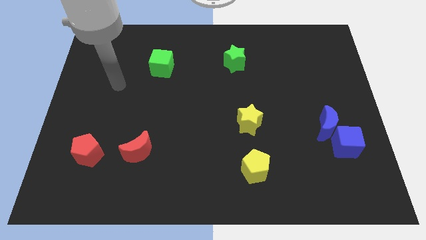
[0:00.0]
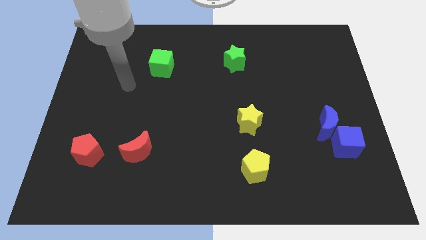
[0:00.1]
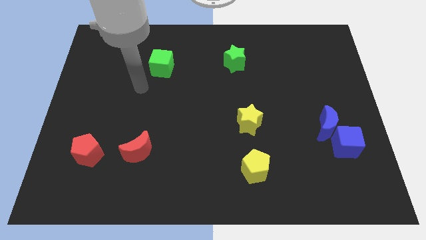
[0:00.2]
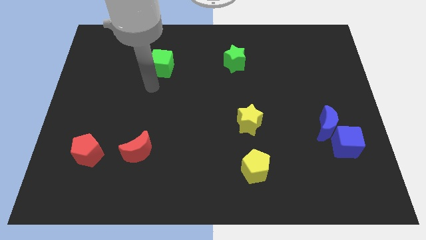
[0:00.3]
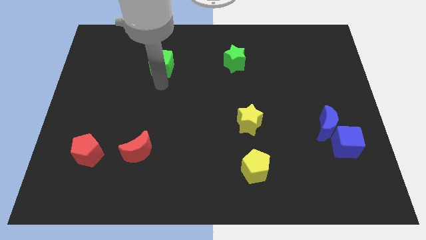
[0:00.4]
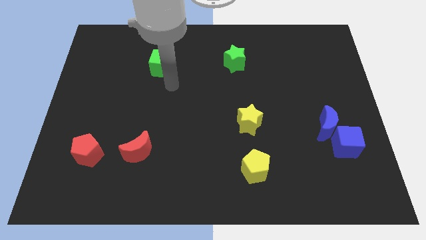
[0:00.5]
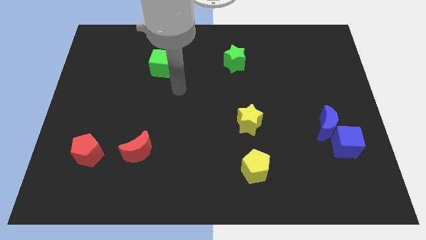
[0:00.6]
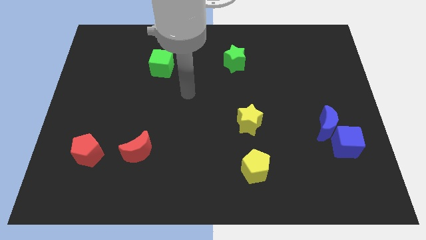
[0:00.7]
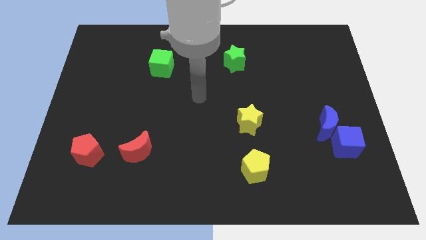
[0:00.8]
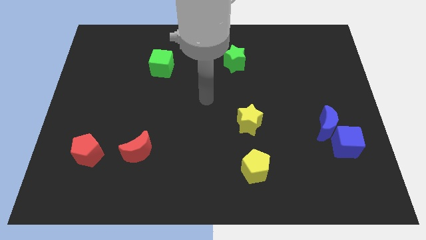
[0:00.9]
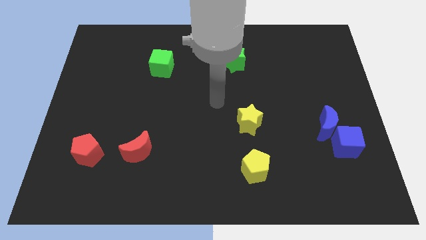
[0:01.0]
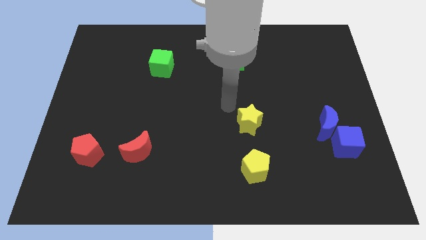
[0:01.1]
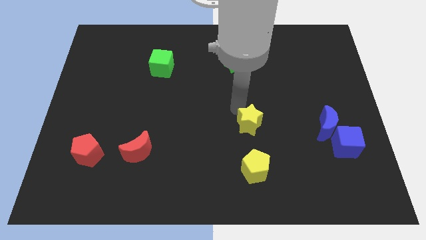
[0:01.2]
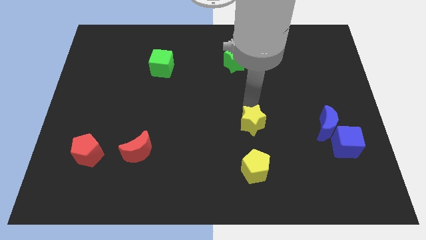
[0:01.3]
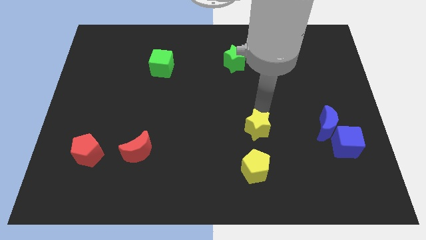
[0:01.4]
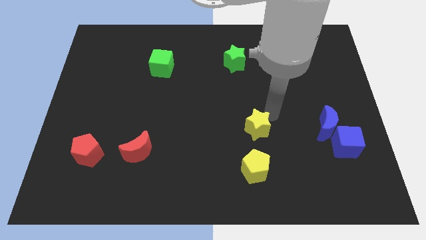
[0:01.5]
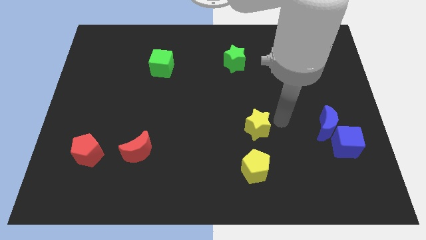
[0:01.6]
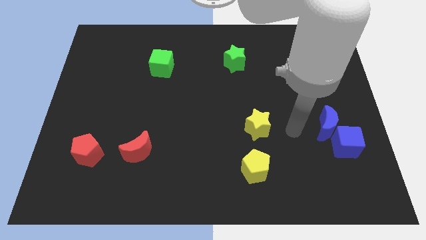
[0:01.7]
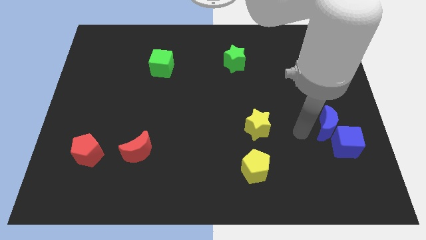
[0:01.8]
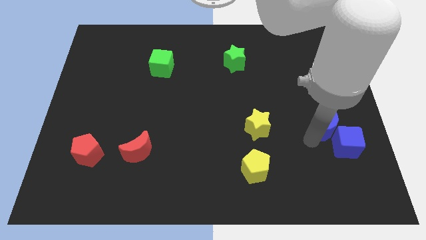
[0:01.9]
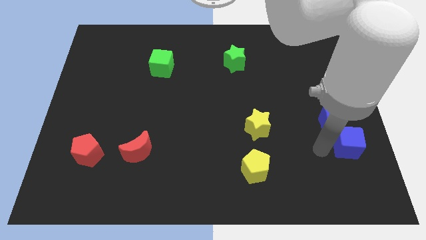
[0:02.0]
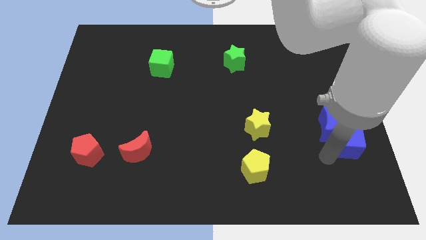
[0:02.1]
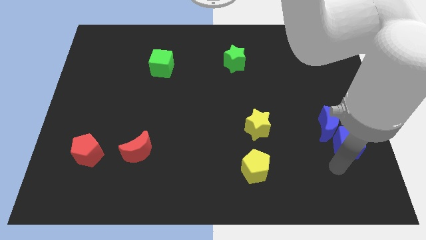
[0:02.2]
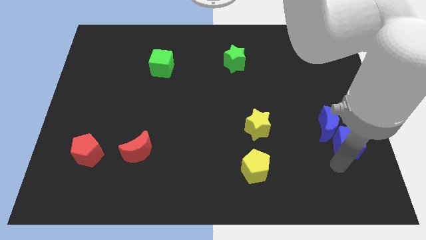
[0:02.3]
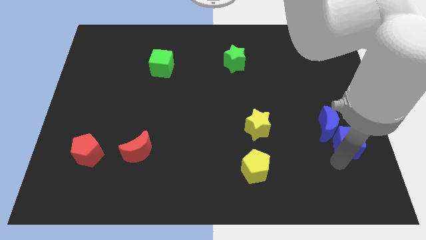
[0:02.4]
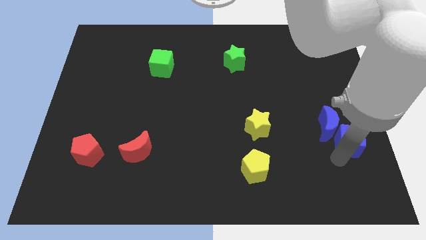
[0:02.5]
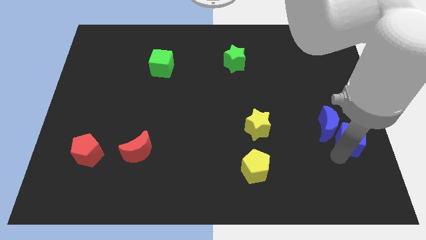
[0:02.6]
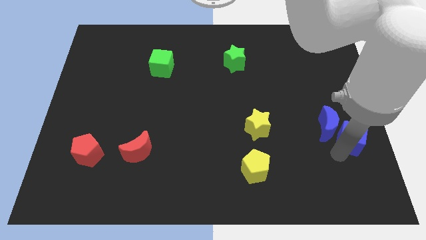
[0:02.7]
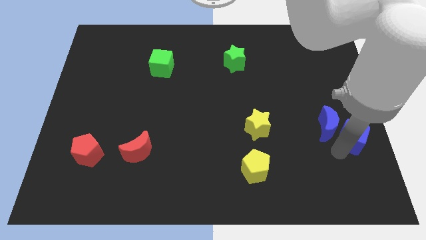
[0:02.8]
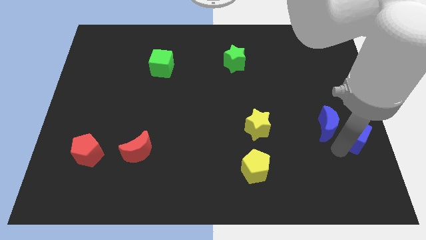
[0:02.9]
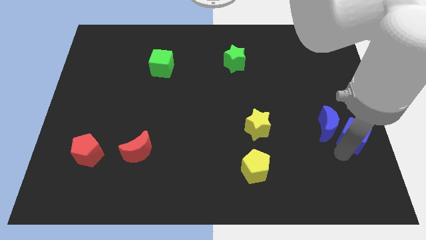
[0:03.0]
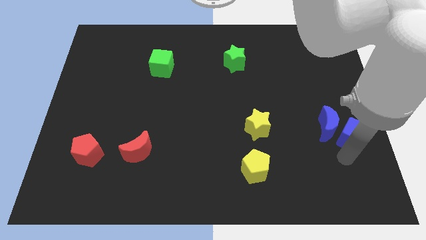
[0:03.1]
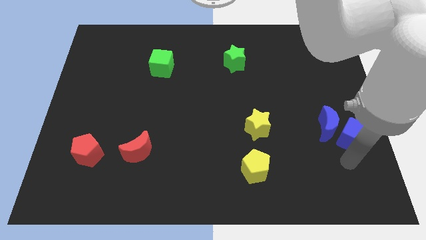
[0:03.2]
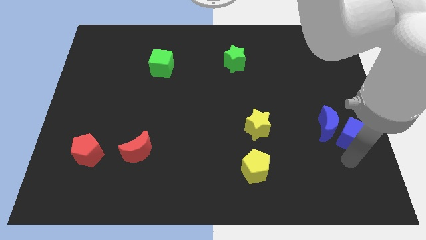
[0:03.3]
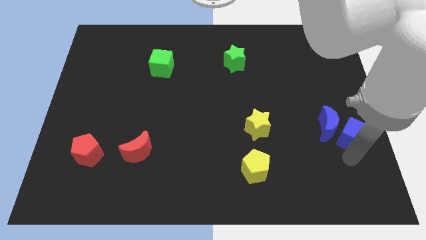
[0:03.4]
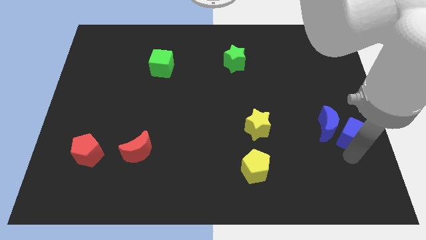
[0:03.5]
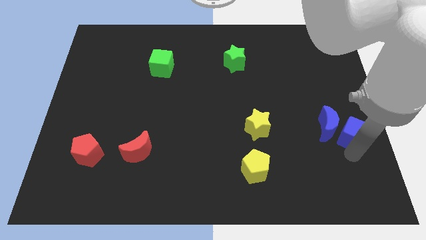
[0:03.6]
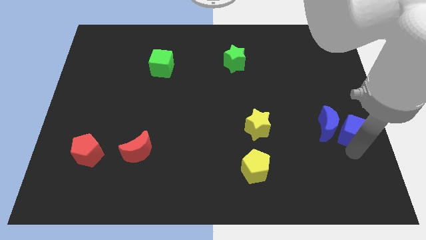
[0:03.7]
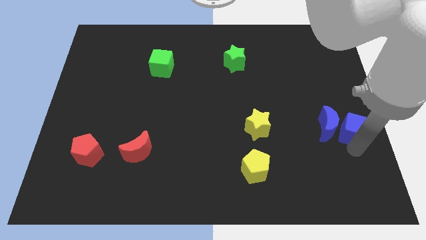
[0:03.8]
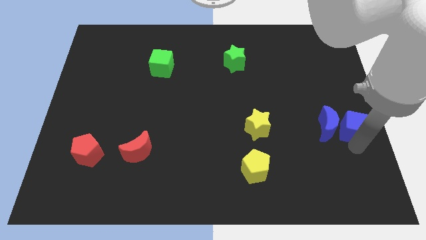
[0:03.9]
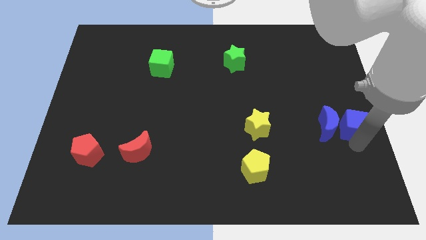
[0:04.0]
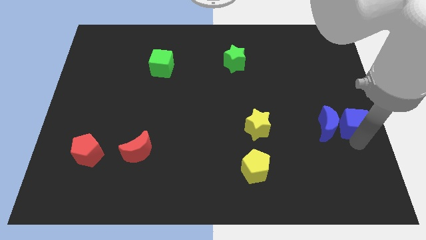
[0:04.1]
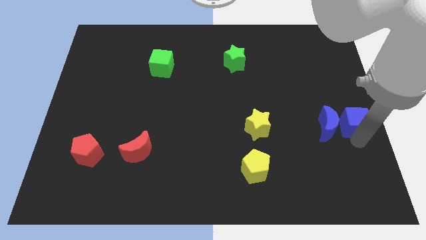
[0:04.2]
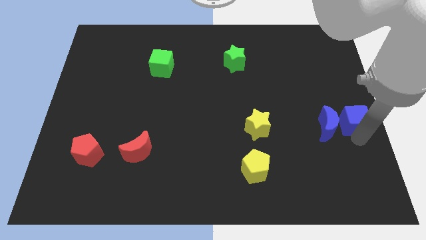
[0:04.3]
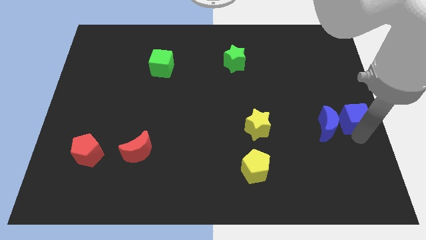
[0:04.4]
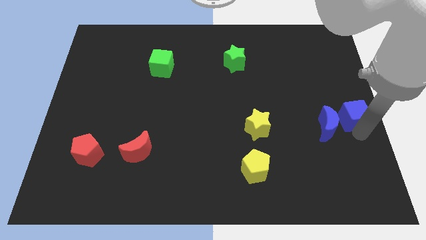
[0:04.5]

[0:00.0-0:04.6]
move the blue cube a little bit upwards

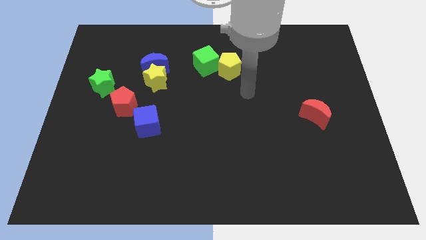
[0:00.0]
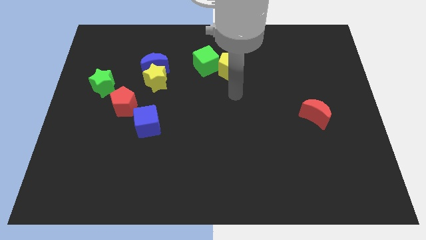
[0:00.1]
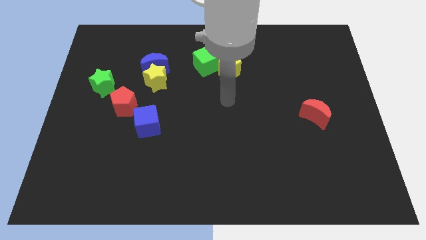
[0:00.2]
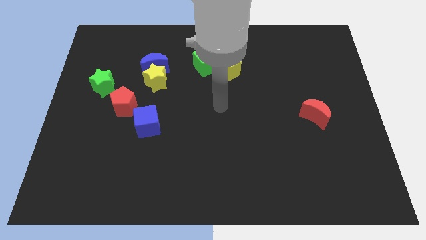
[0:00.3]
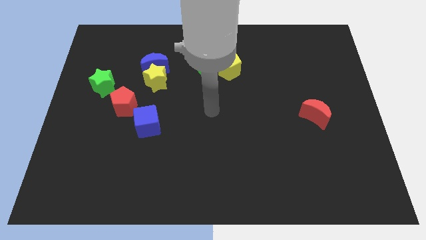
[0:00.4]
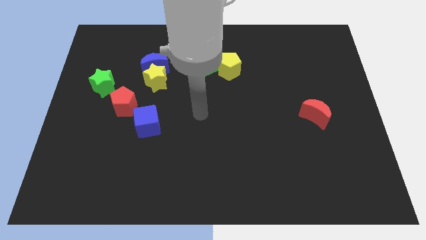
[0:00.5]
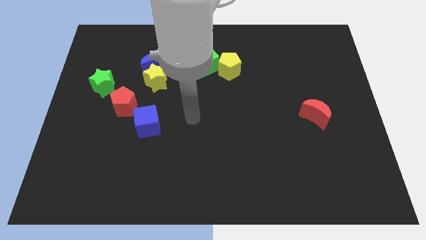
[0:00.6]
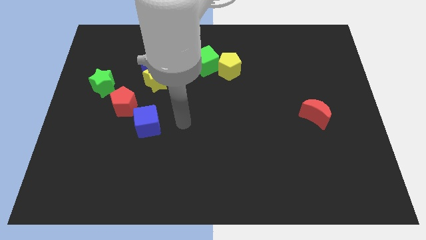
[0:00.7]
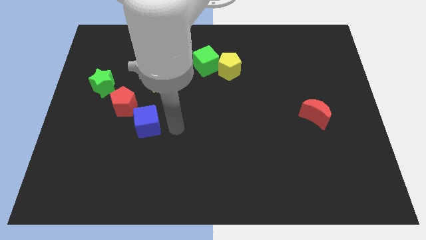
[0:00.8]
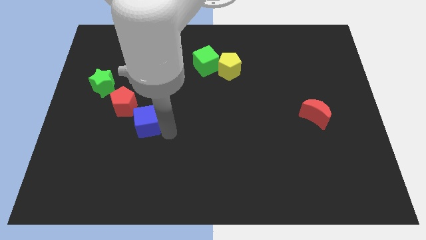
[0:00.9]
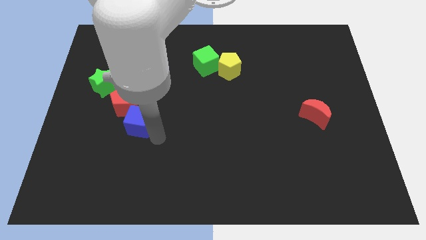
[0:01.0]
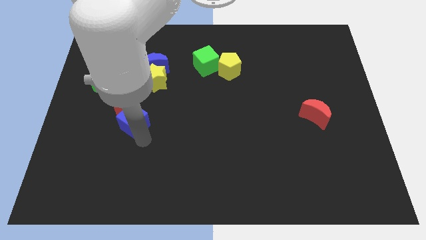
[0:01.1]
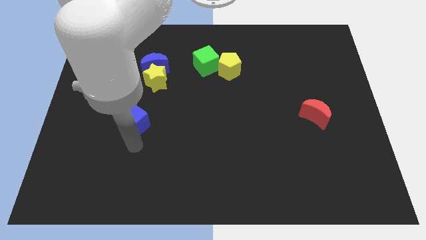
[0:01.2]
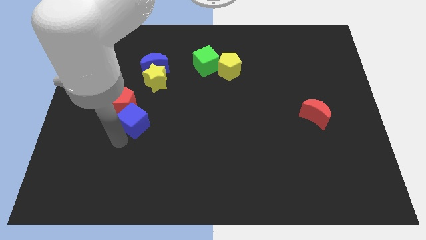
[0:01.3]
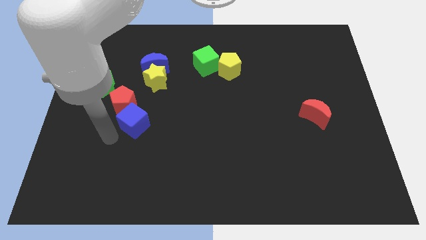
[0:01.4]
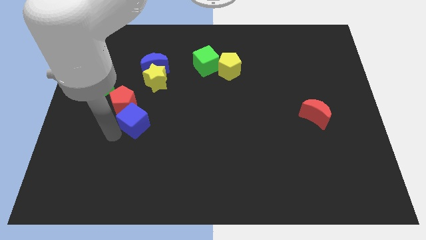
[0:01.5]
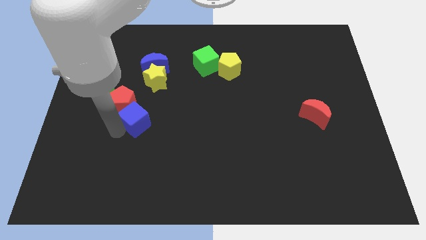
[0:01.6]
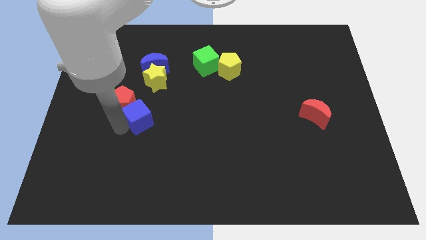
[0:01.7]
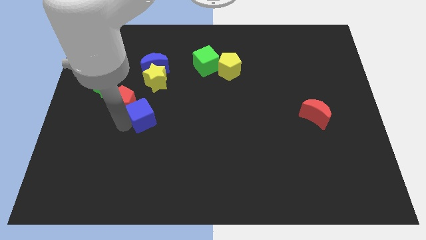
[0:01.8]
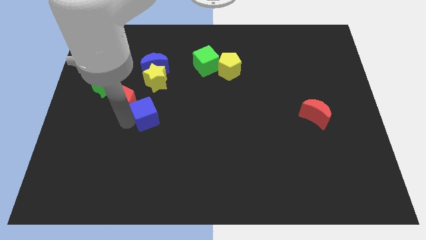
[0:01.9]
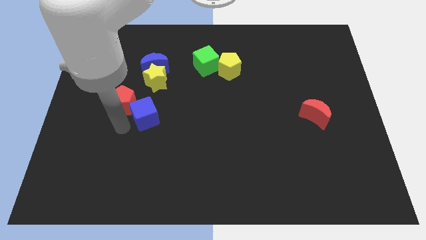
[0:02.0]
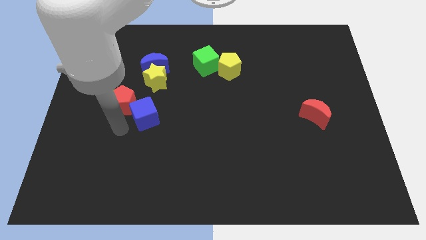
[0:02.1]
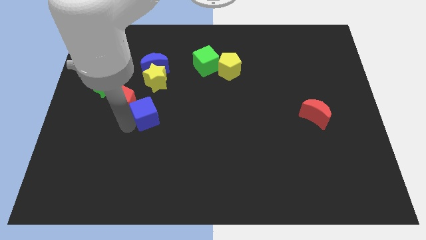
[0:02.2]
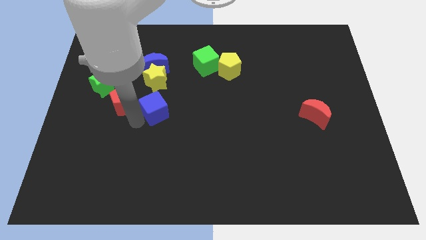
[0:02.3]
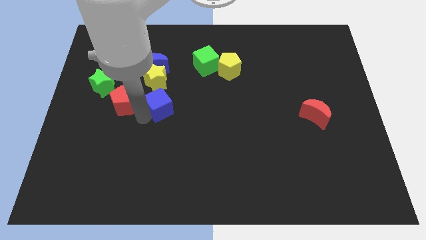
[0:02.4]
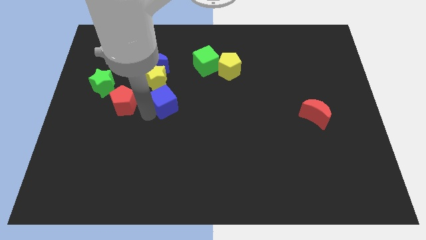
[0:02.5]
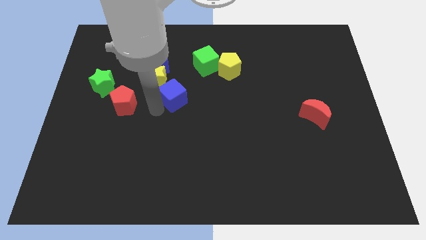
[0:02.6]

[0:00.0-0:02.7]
slightly move the blue cube up and to the right diagonally

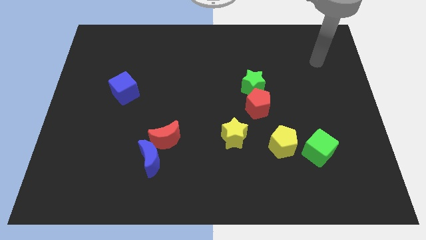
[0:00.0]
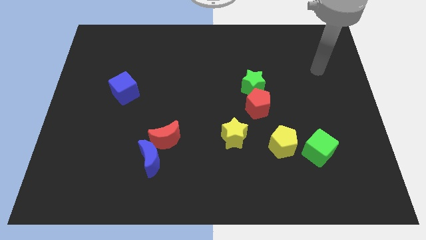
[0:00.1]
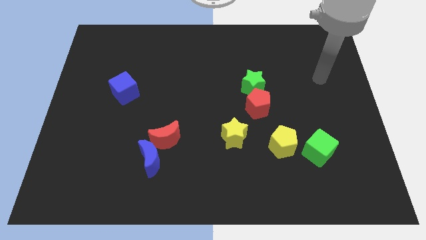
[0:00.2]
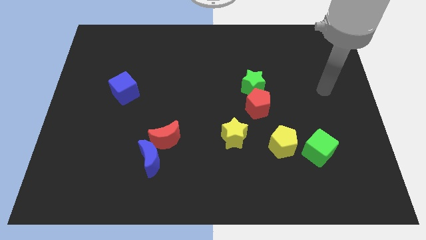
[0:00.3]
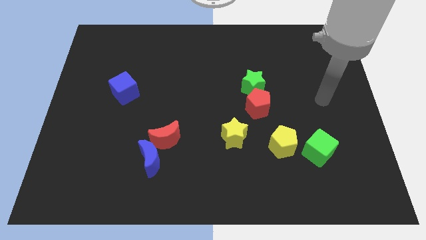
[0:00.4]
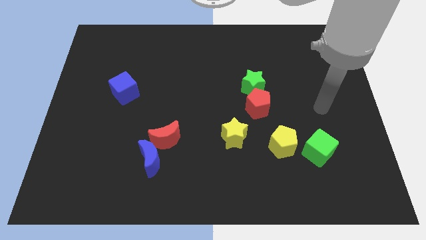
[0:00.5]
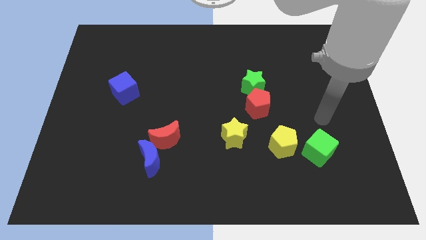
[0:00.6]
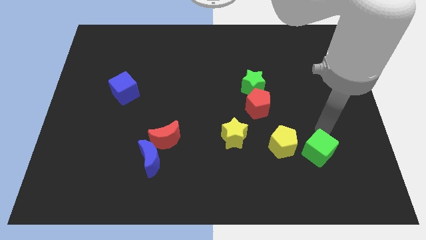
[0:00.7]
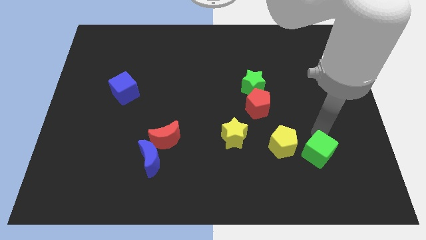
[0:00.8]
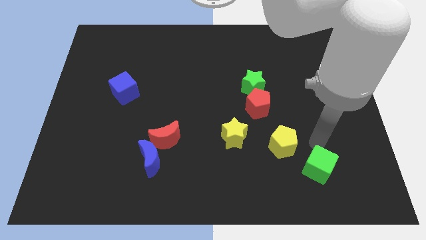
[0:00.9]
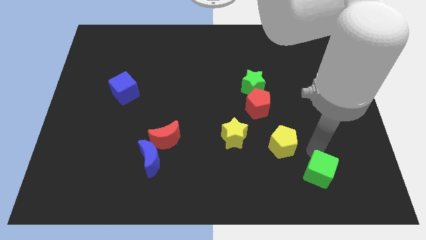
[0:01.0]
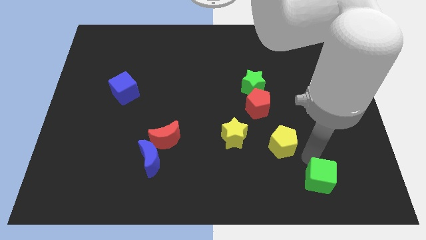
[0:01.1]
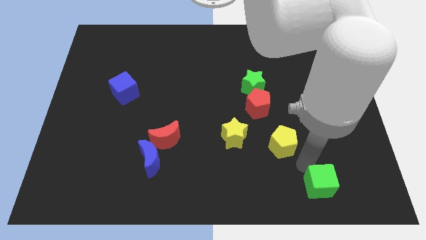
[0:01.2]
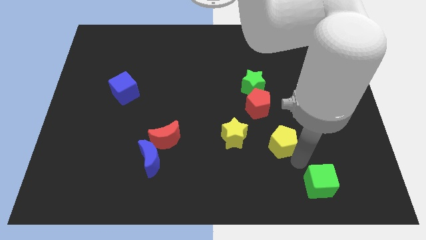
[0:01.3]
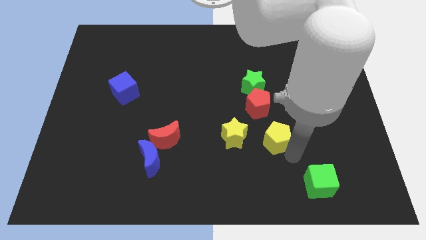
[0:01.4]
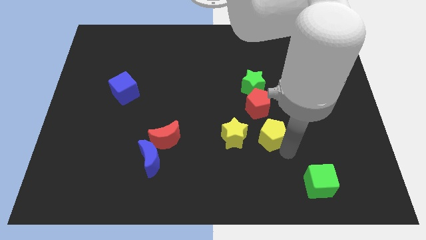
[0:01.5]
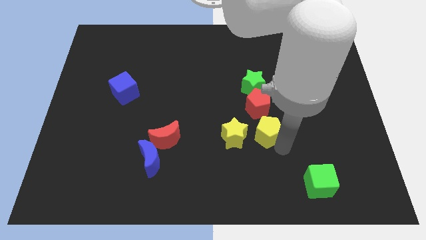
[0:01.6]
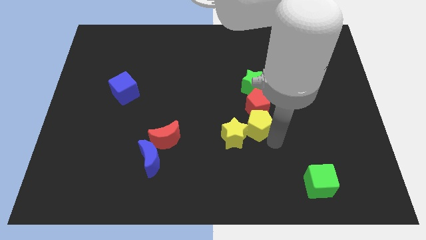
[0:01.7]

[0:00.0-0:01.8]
slightly push the yellow pentagon upwards and then to the left
